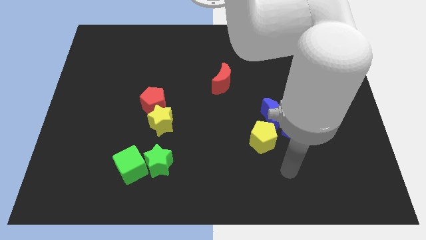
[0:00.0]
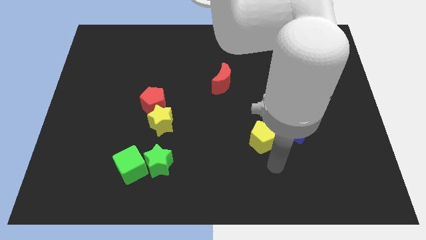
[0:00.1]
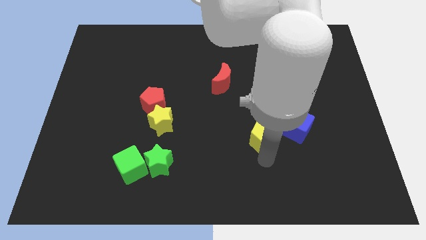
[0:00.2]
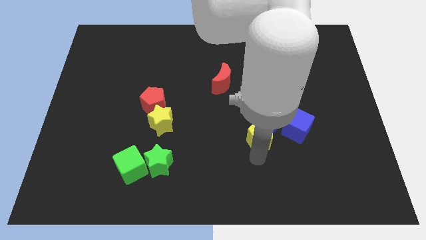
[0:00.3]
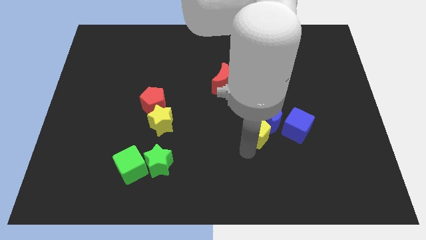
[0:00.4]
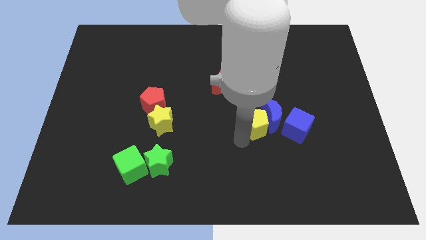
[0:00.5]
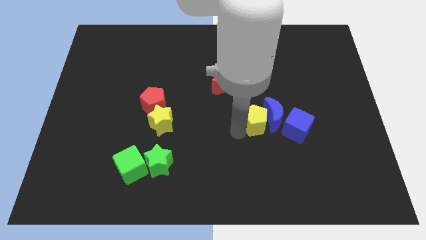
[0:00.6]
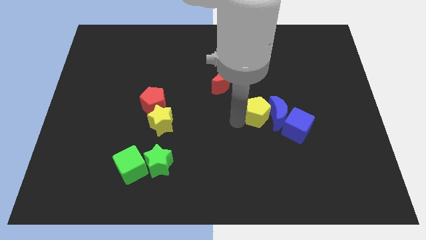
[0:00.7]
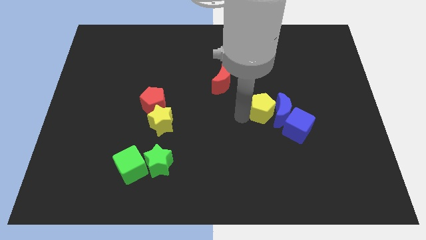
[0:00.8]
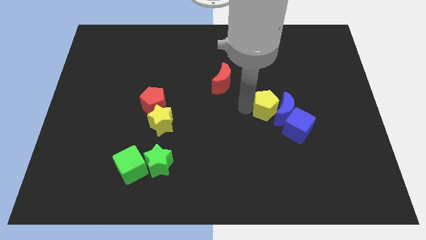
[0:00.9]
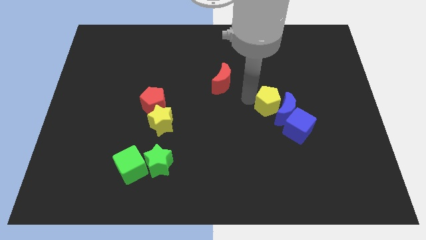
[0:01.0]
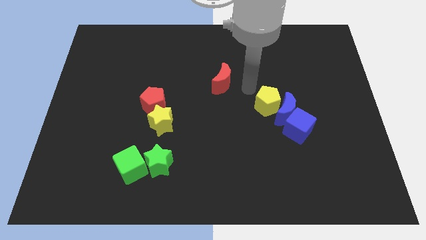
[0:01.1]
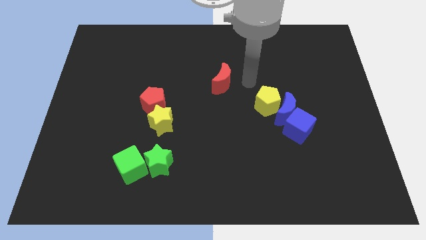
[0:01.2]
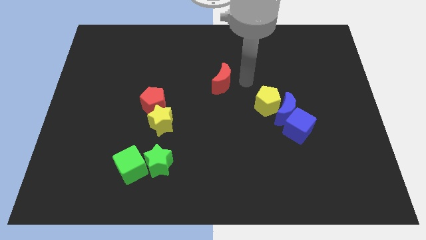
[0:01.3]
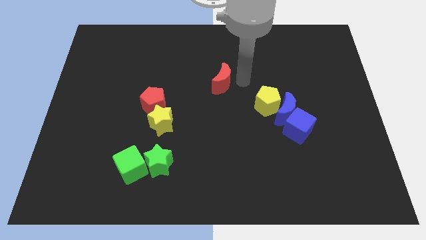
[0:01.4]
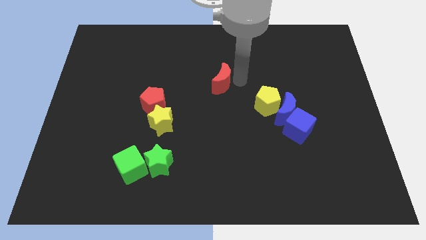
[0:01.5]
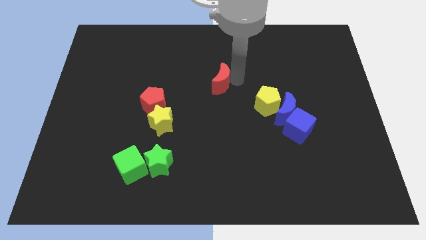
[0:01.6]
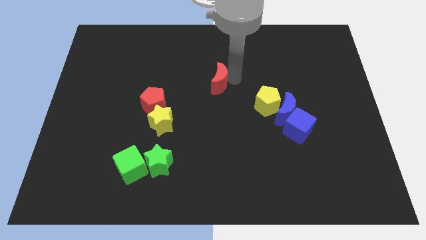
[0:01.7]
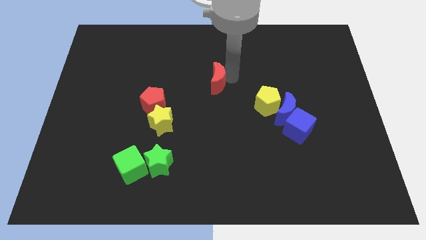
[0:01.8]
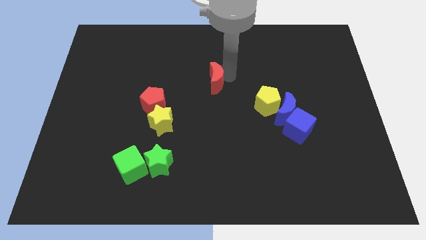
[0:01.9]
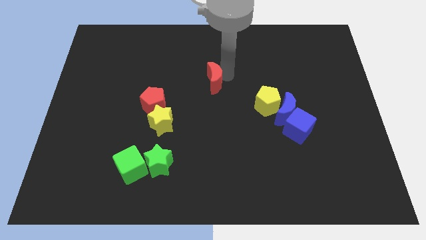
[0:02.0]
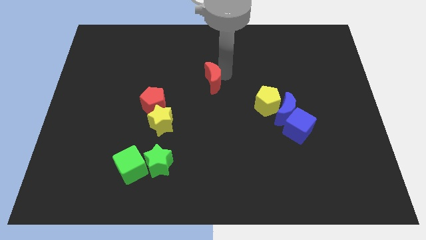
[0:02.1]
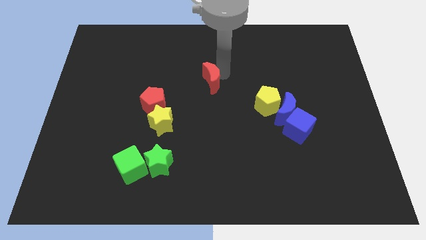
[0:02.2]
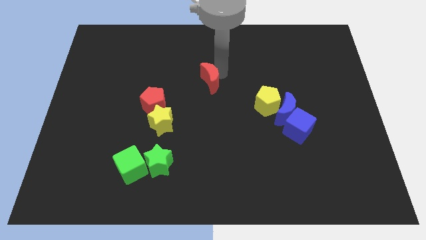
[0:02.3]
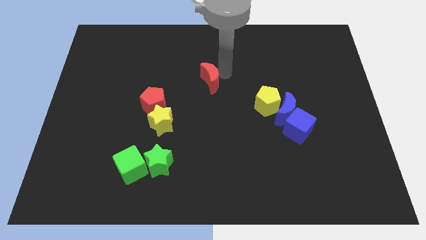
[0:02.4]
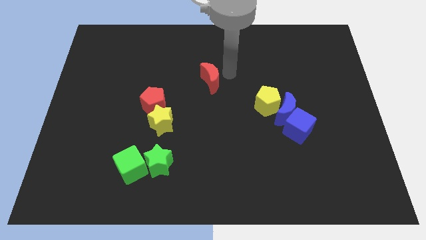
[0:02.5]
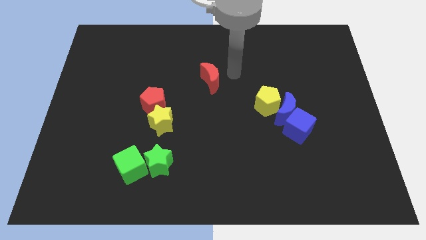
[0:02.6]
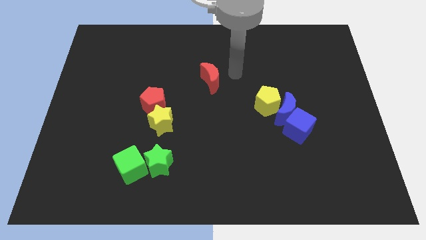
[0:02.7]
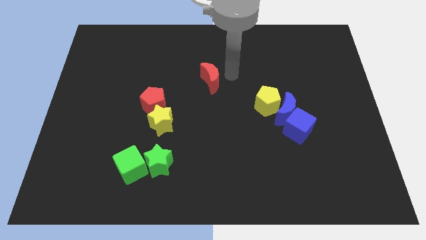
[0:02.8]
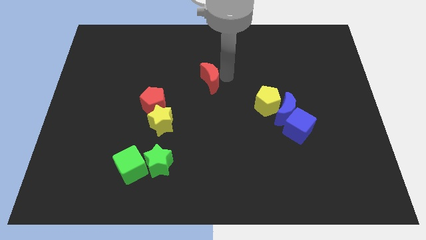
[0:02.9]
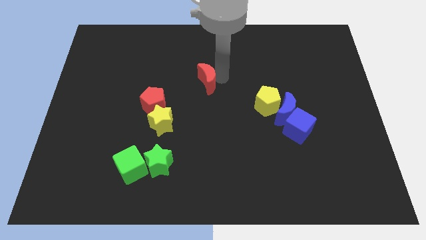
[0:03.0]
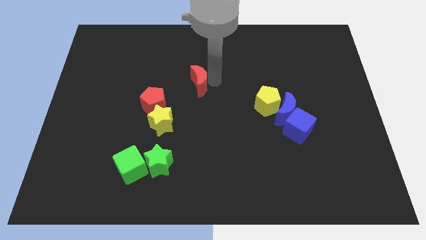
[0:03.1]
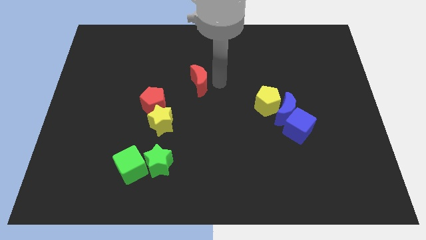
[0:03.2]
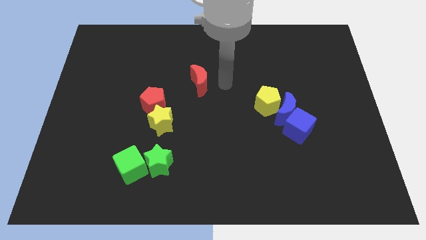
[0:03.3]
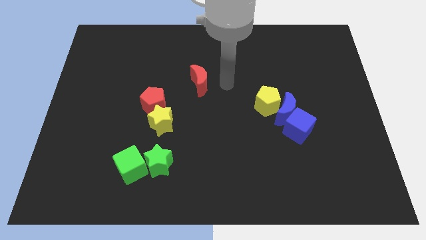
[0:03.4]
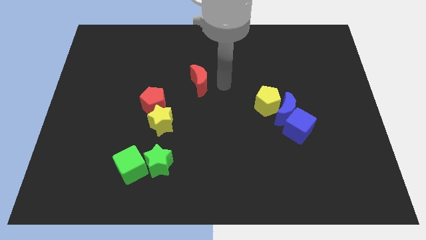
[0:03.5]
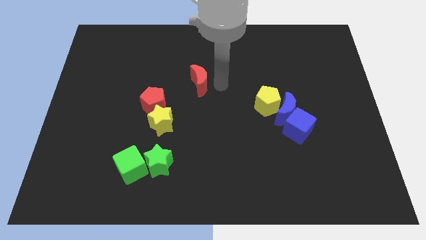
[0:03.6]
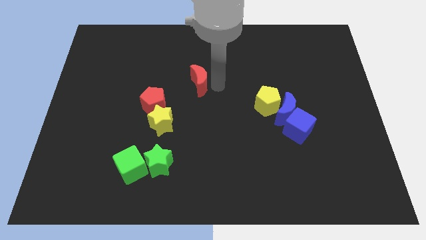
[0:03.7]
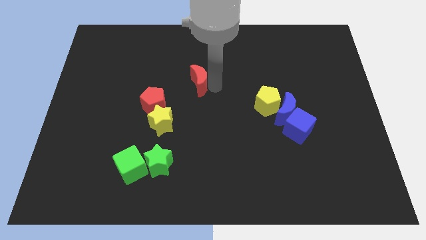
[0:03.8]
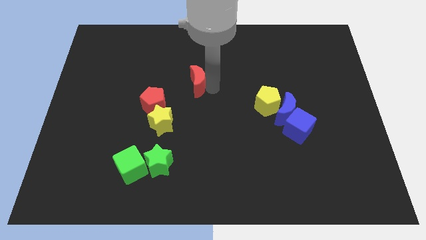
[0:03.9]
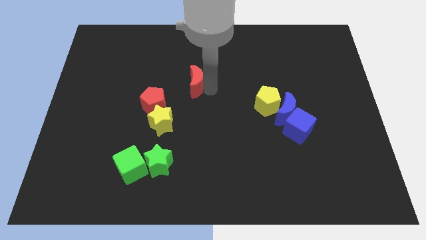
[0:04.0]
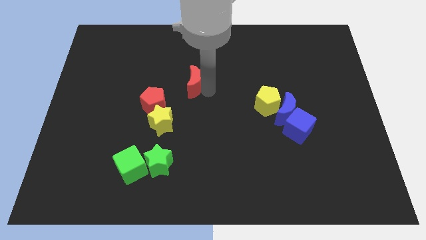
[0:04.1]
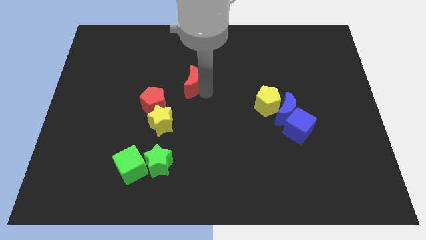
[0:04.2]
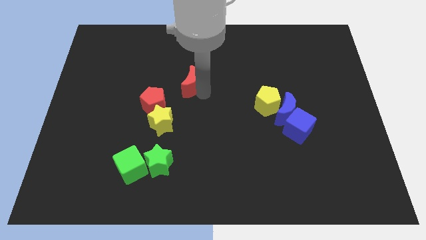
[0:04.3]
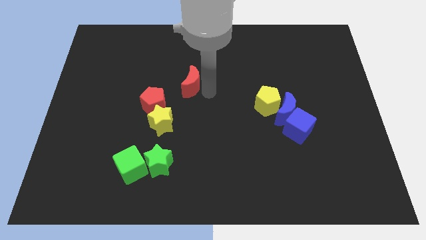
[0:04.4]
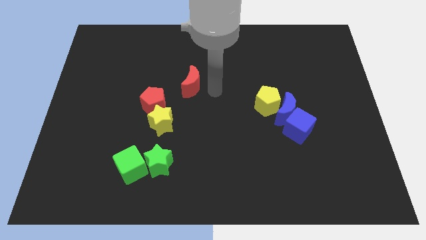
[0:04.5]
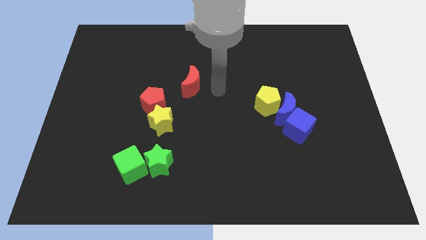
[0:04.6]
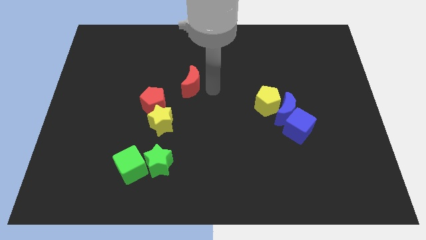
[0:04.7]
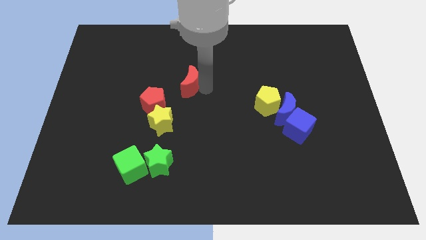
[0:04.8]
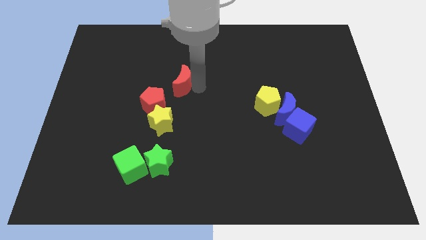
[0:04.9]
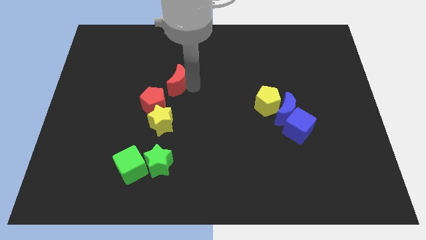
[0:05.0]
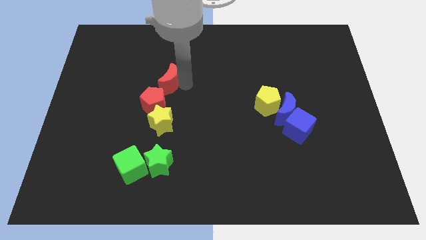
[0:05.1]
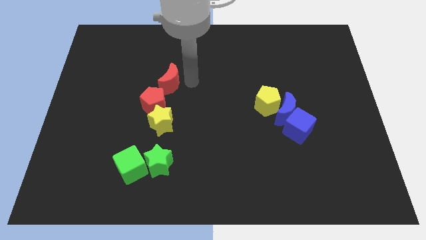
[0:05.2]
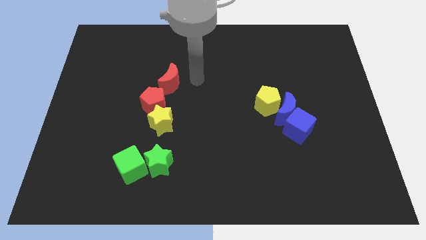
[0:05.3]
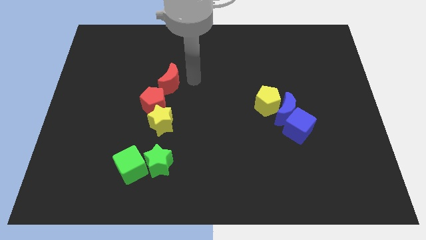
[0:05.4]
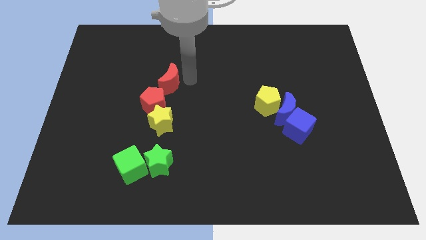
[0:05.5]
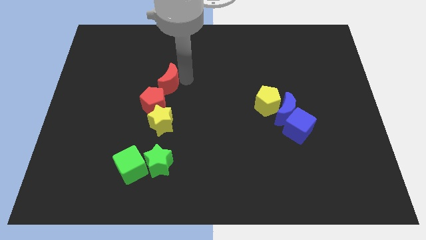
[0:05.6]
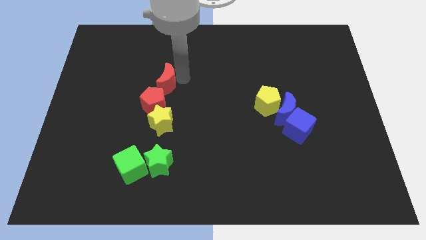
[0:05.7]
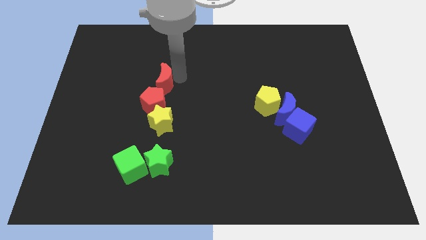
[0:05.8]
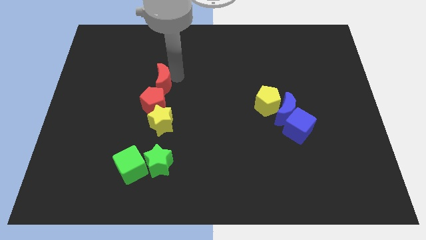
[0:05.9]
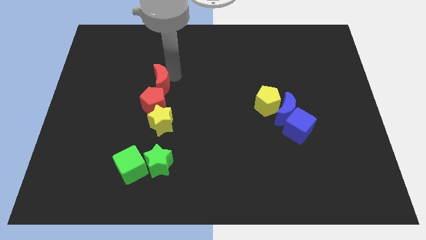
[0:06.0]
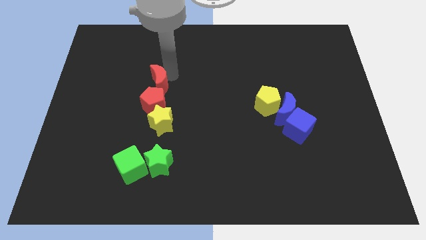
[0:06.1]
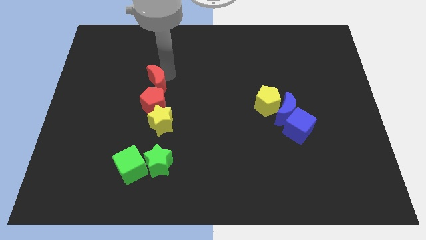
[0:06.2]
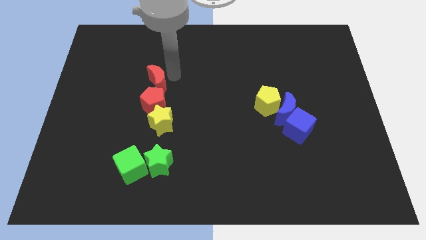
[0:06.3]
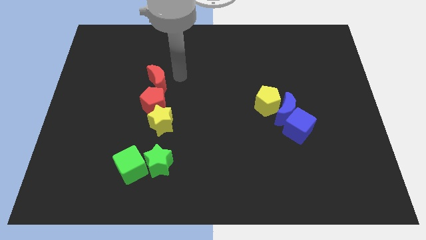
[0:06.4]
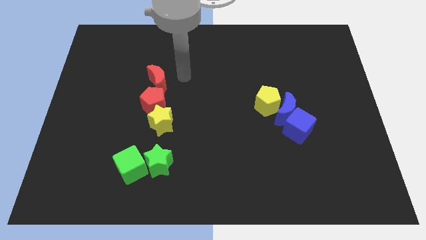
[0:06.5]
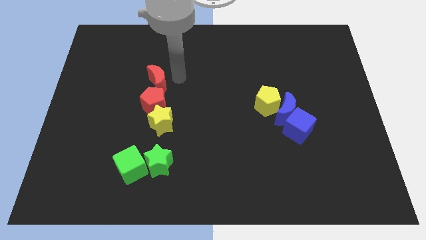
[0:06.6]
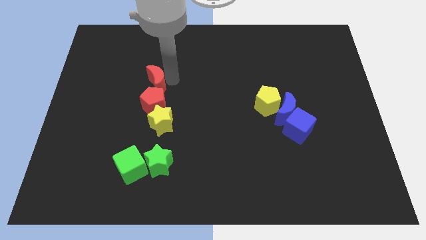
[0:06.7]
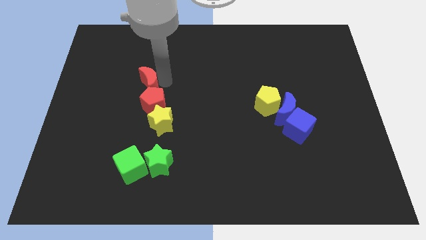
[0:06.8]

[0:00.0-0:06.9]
push the red moon diagonally up and to the left of the red pentagon
